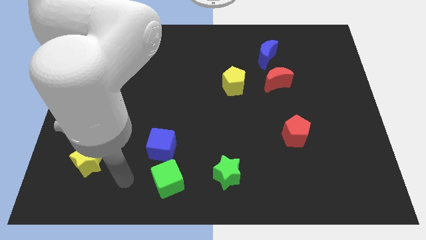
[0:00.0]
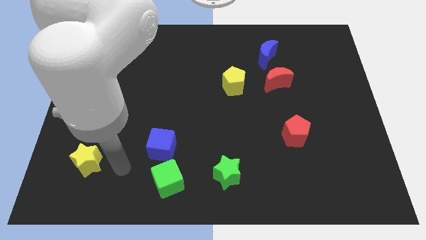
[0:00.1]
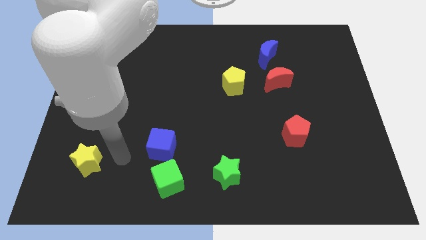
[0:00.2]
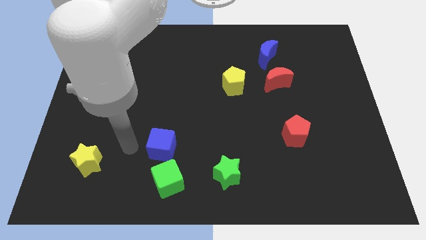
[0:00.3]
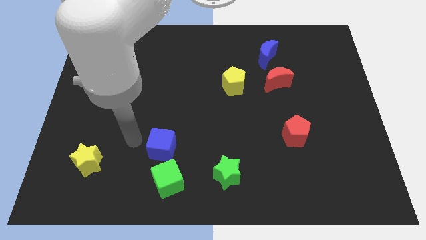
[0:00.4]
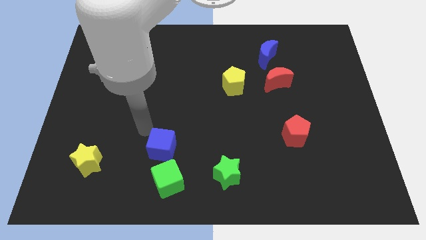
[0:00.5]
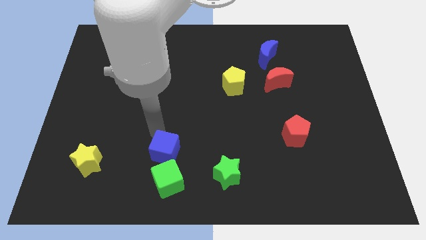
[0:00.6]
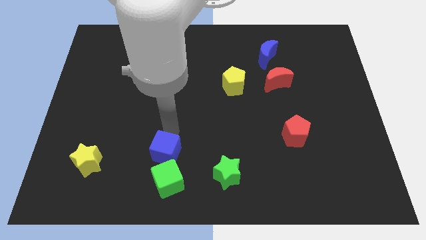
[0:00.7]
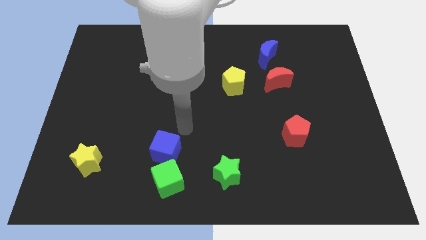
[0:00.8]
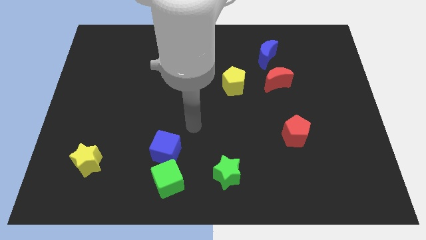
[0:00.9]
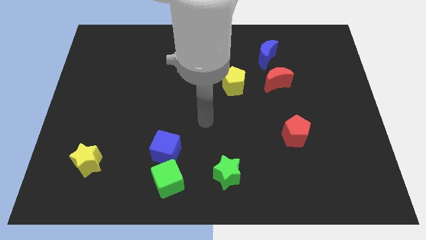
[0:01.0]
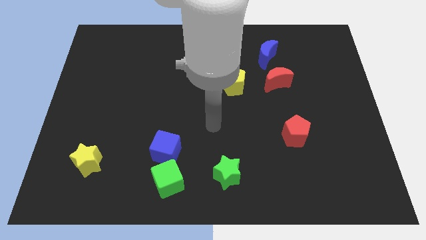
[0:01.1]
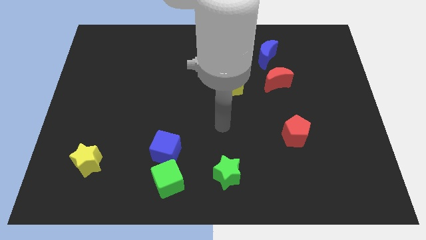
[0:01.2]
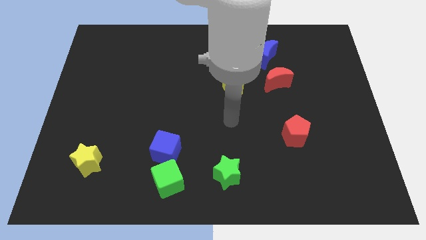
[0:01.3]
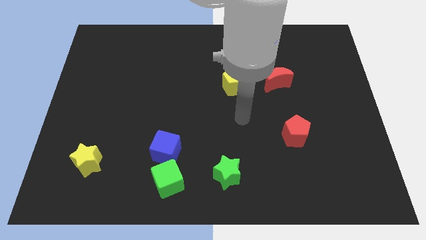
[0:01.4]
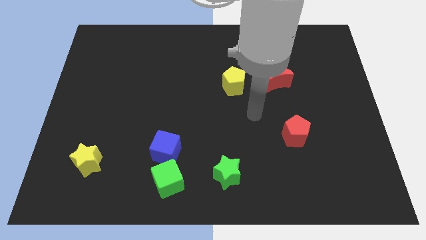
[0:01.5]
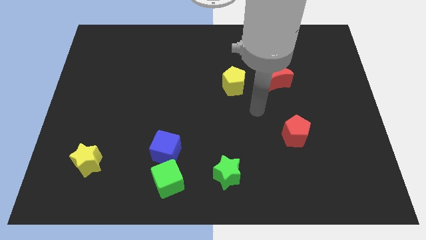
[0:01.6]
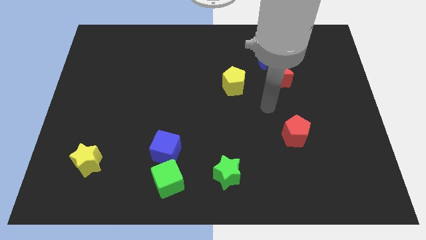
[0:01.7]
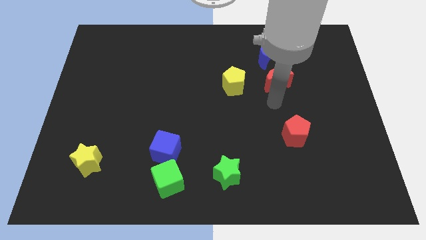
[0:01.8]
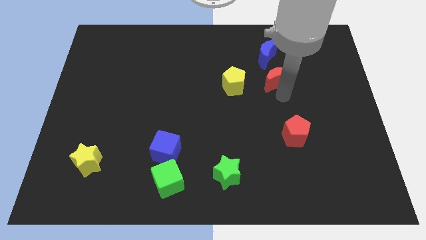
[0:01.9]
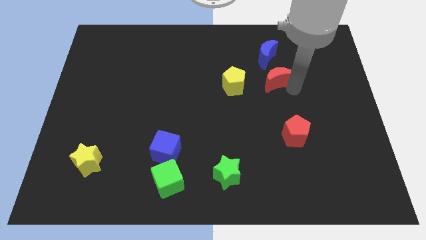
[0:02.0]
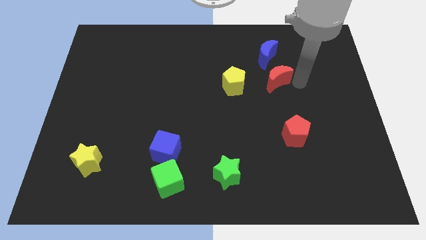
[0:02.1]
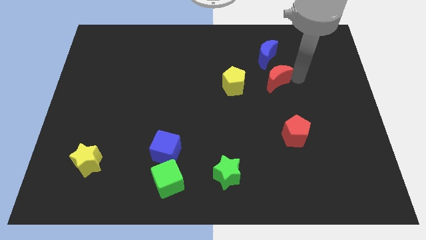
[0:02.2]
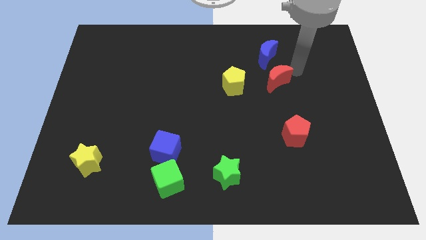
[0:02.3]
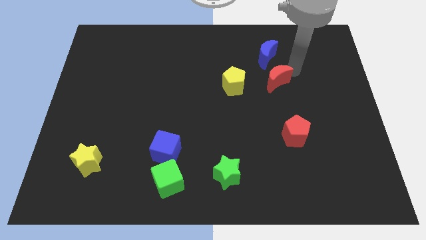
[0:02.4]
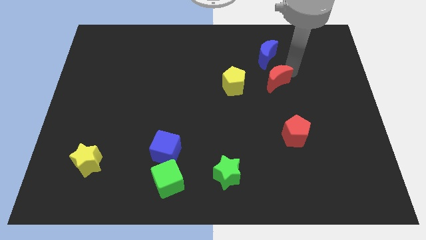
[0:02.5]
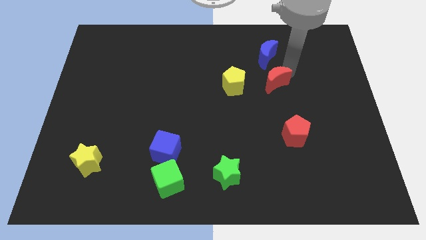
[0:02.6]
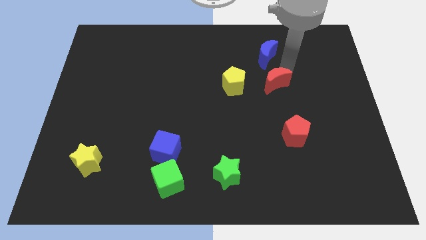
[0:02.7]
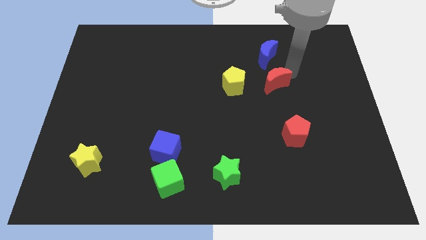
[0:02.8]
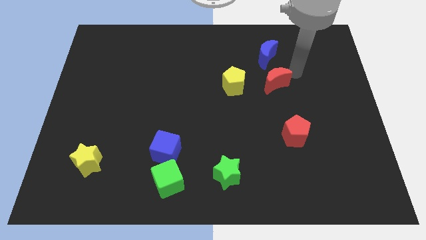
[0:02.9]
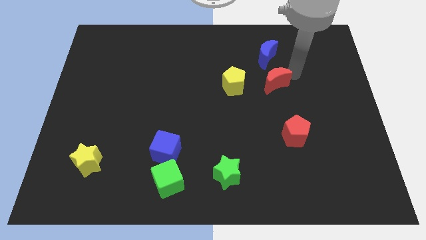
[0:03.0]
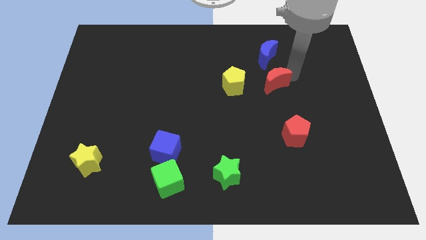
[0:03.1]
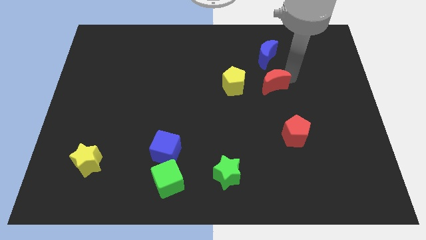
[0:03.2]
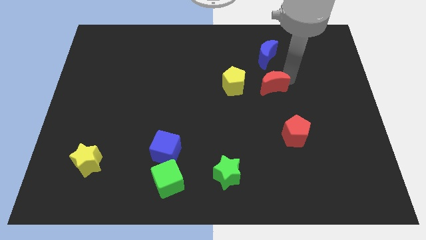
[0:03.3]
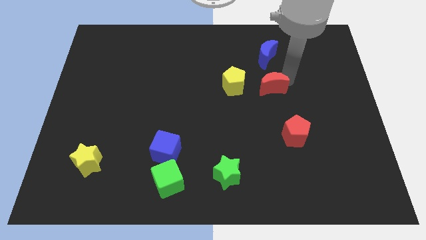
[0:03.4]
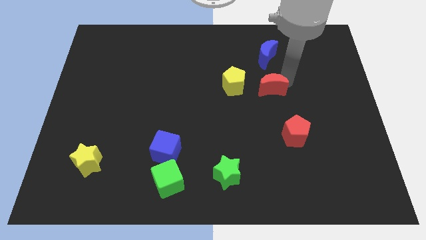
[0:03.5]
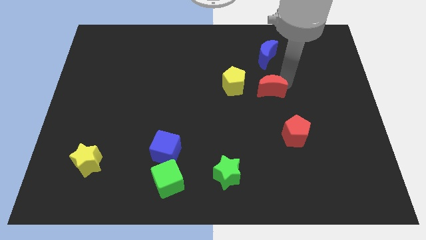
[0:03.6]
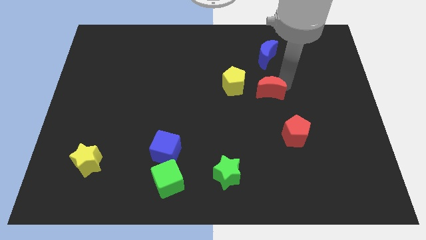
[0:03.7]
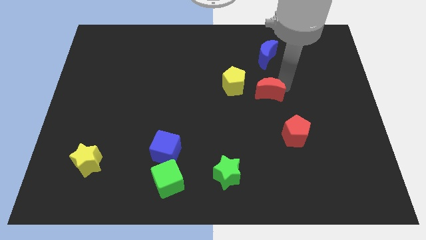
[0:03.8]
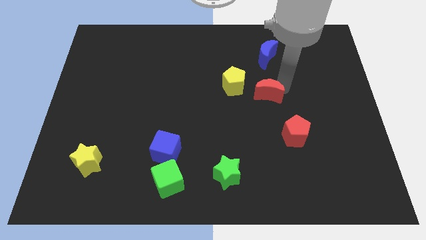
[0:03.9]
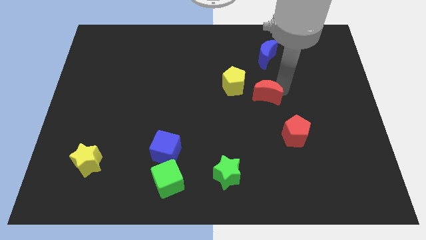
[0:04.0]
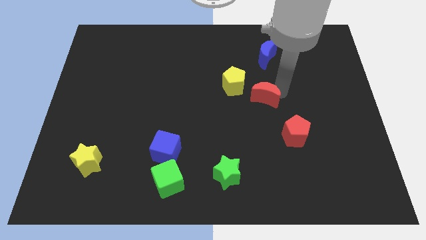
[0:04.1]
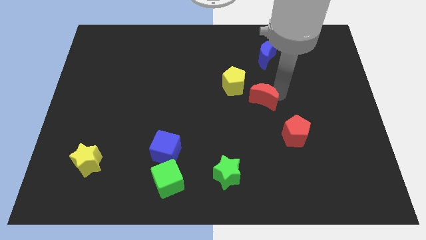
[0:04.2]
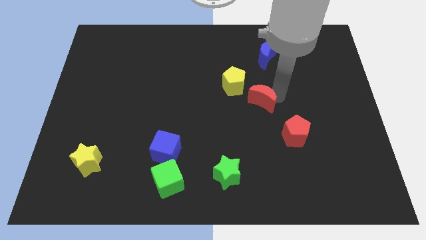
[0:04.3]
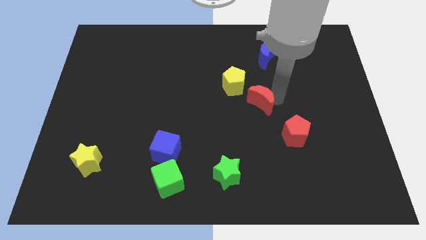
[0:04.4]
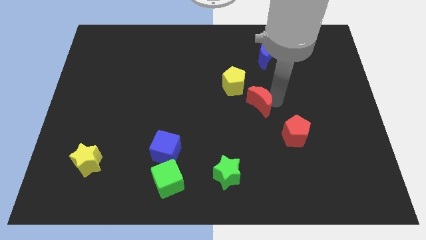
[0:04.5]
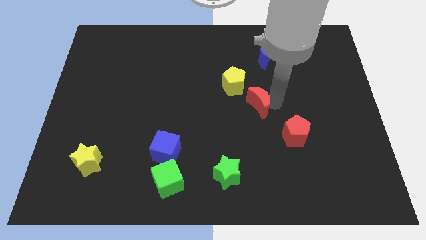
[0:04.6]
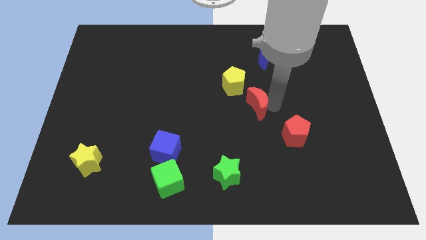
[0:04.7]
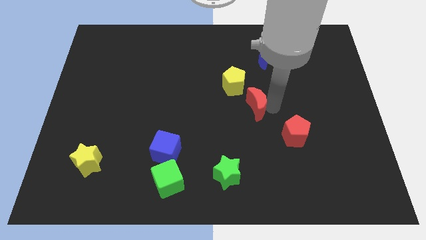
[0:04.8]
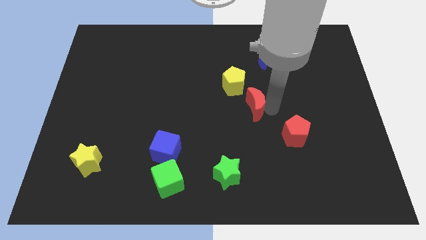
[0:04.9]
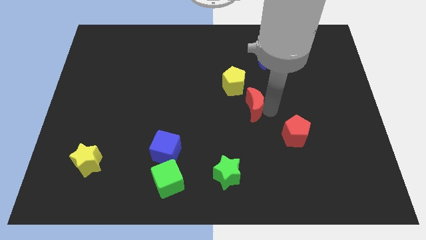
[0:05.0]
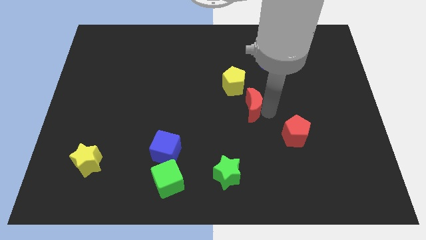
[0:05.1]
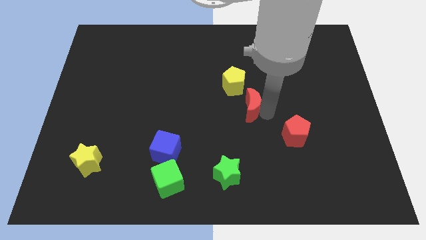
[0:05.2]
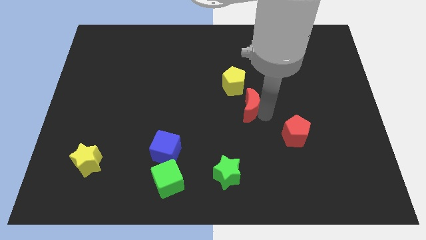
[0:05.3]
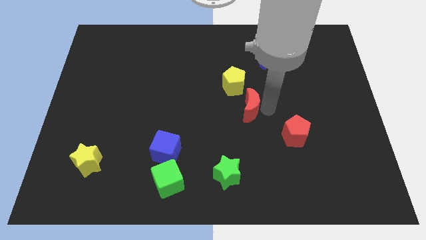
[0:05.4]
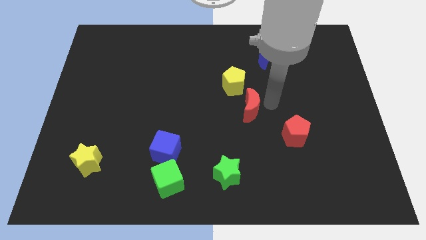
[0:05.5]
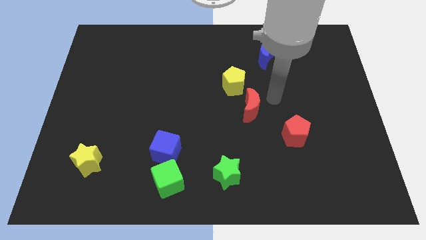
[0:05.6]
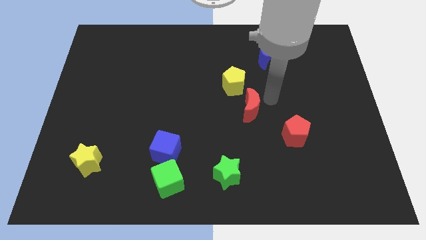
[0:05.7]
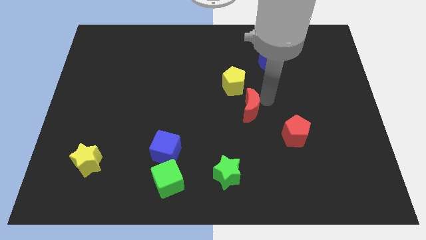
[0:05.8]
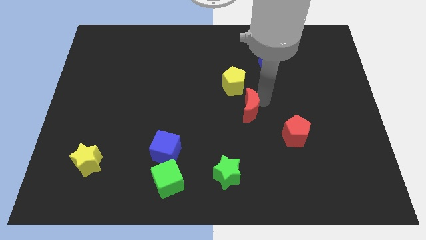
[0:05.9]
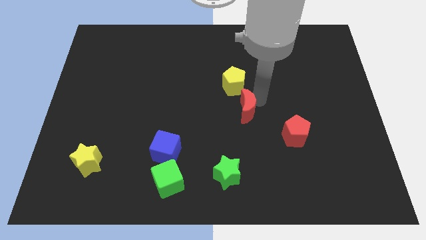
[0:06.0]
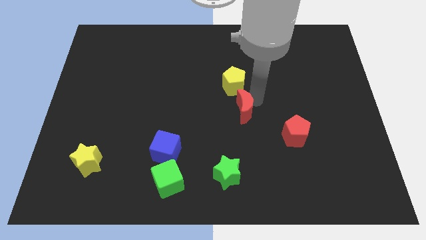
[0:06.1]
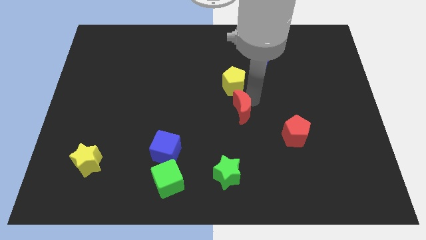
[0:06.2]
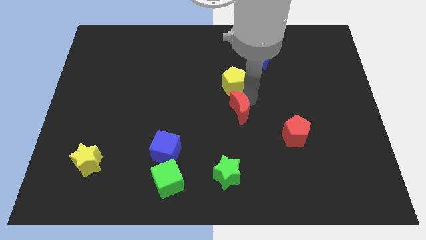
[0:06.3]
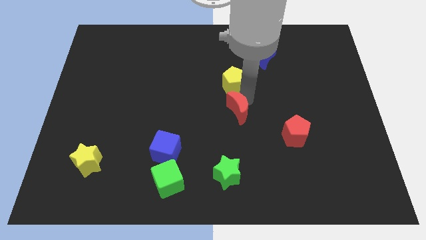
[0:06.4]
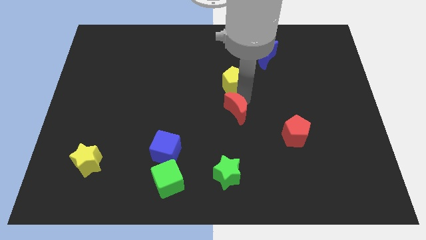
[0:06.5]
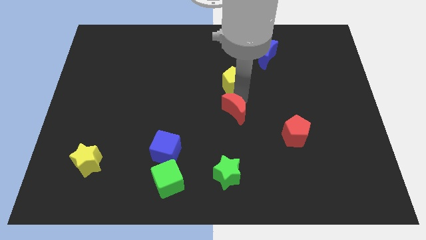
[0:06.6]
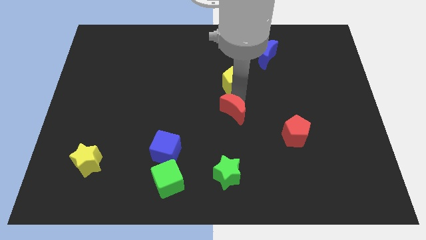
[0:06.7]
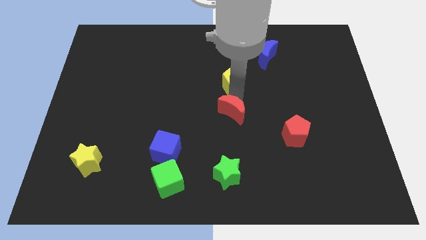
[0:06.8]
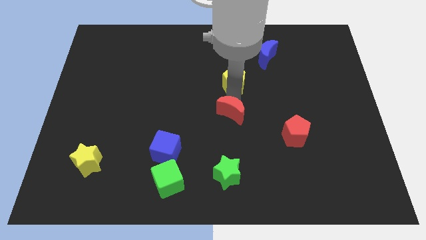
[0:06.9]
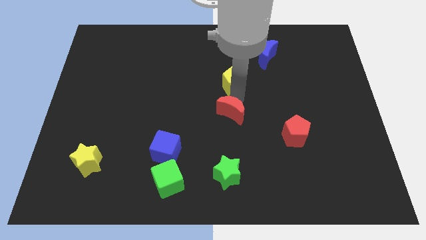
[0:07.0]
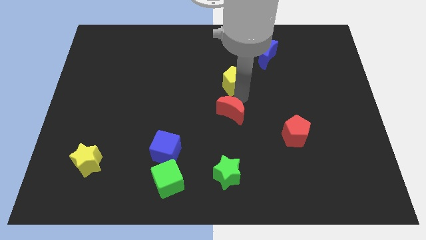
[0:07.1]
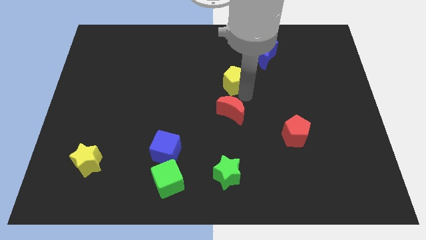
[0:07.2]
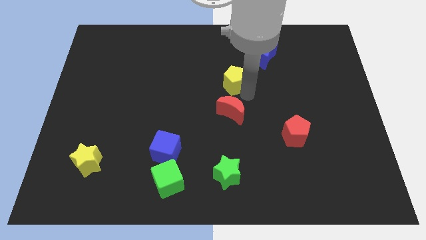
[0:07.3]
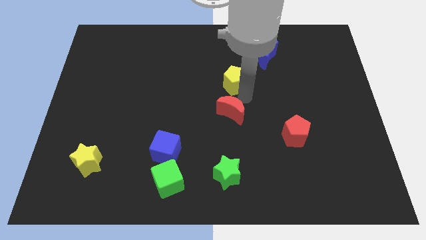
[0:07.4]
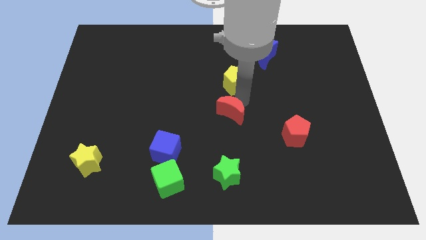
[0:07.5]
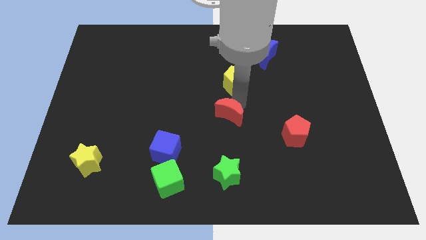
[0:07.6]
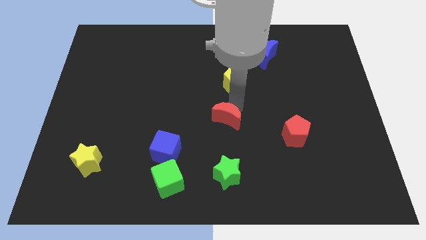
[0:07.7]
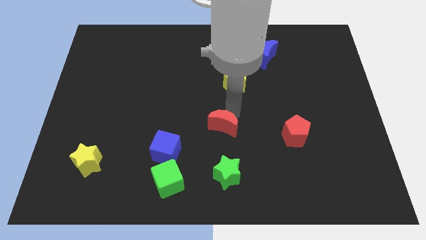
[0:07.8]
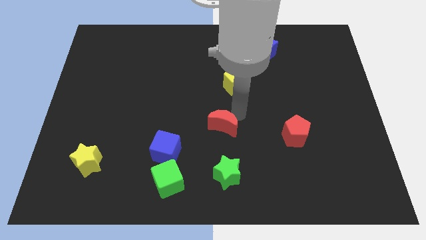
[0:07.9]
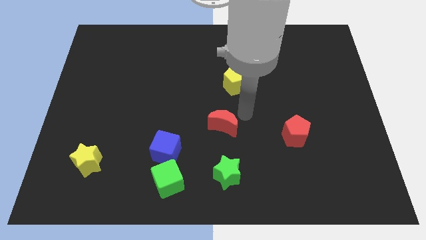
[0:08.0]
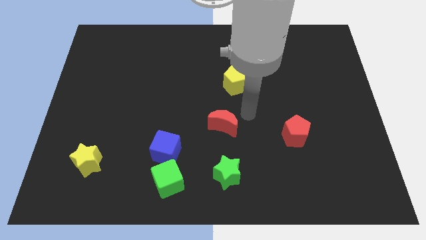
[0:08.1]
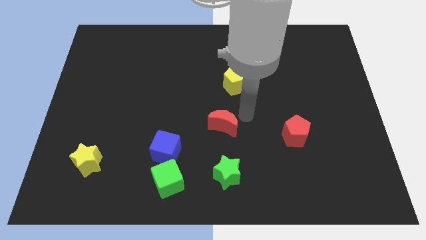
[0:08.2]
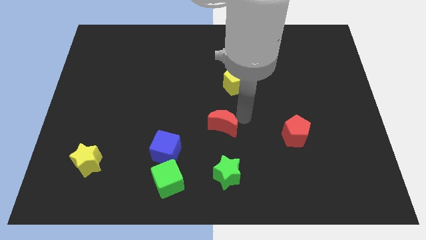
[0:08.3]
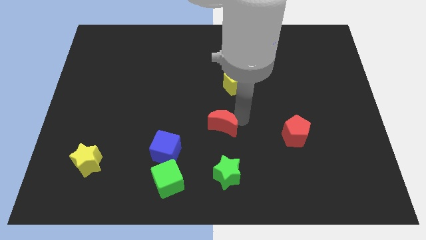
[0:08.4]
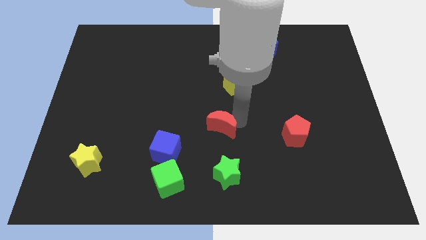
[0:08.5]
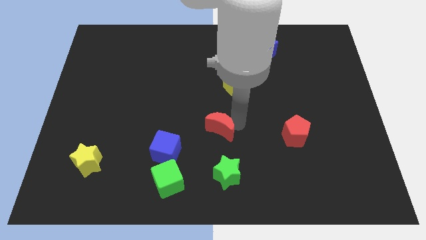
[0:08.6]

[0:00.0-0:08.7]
slide the red moon down and left
